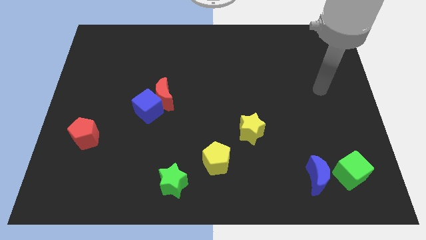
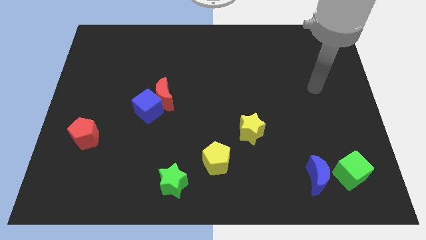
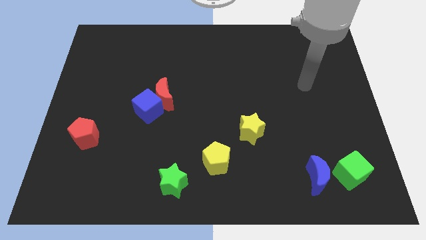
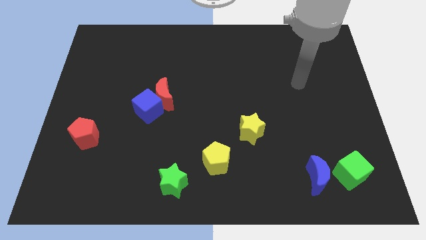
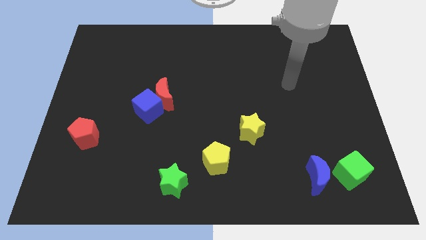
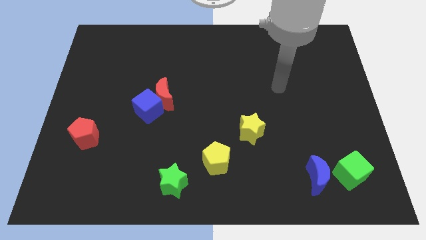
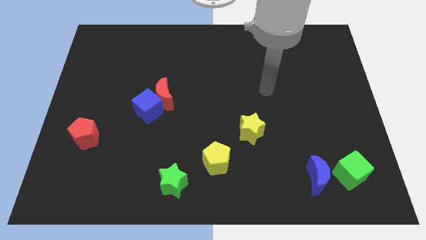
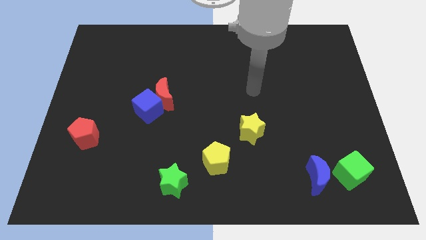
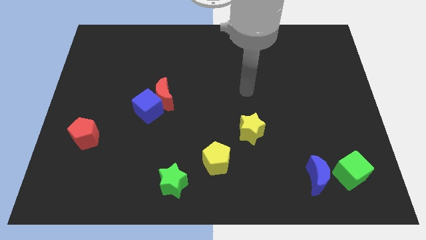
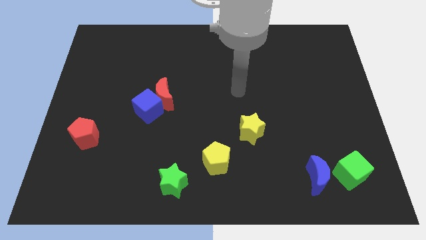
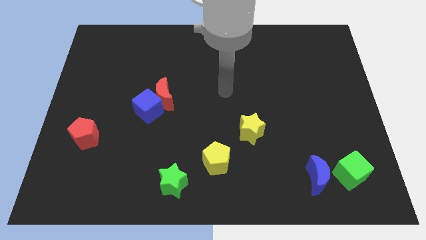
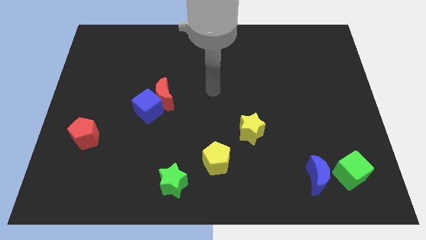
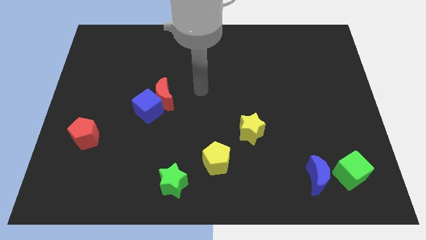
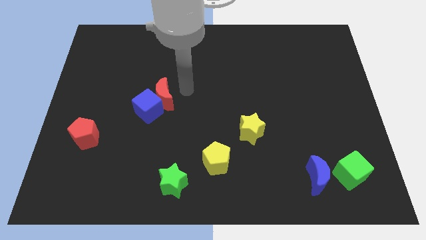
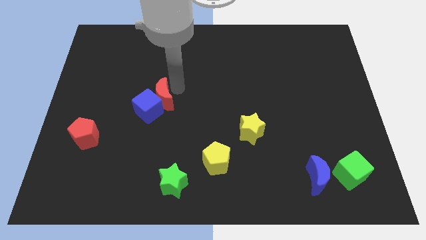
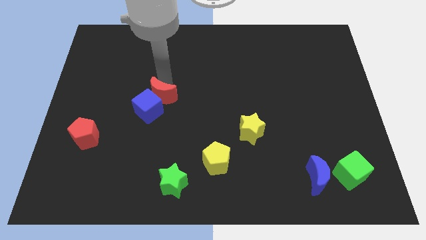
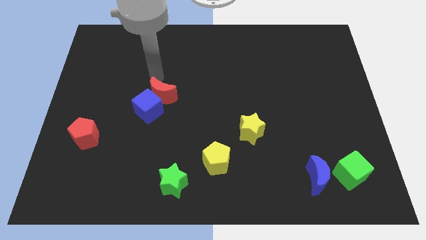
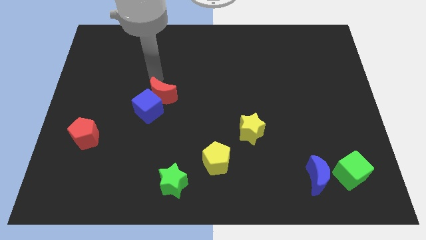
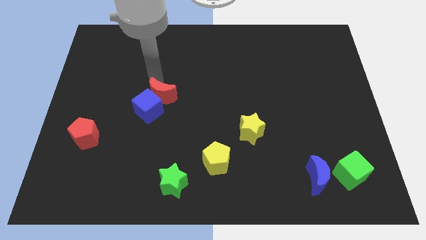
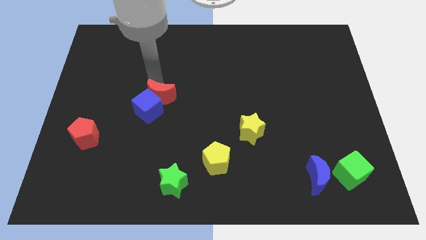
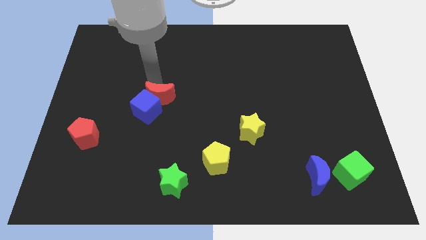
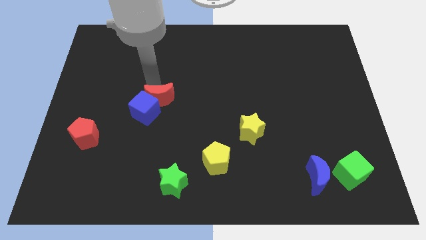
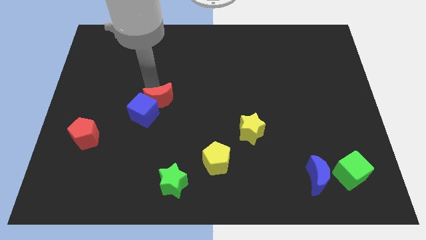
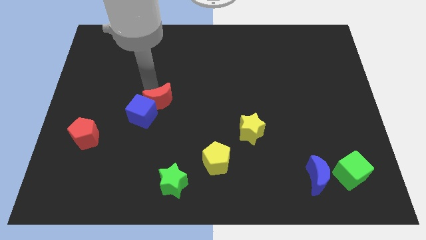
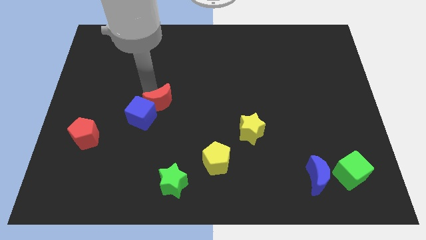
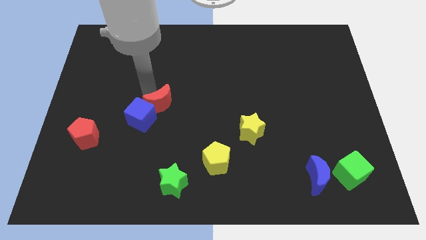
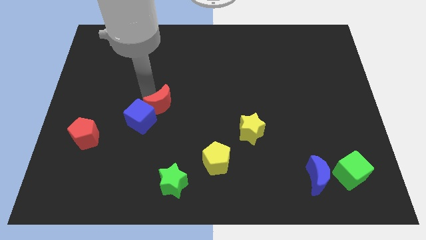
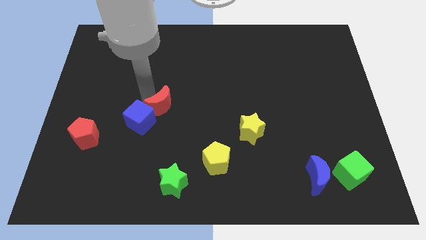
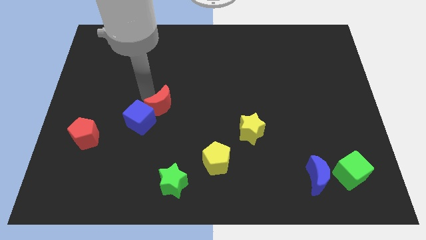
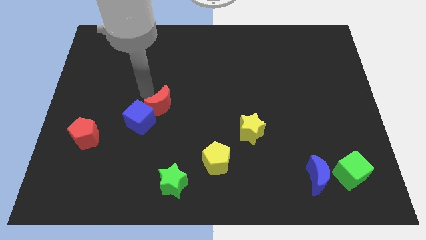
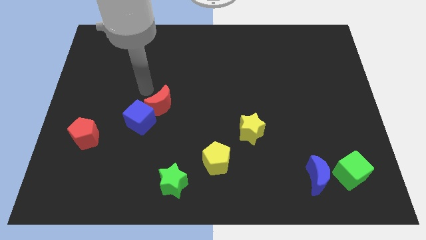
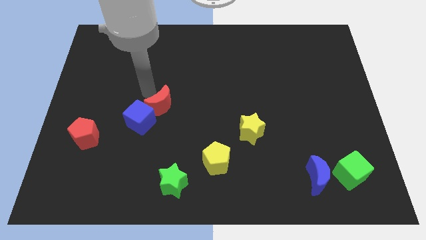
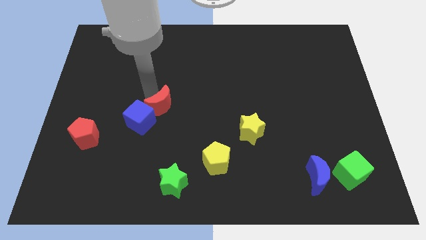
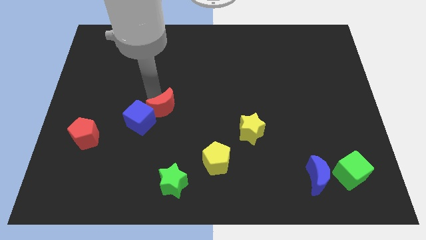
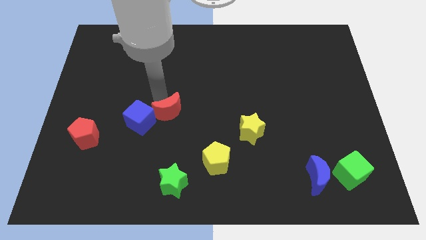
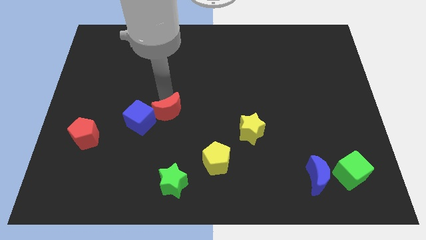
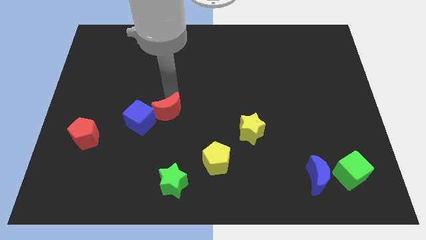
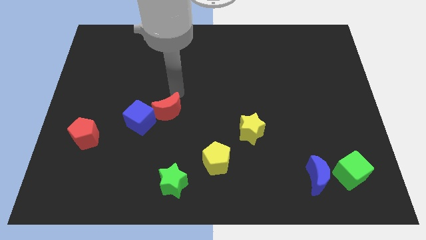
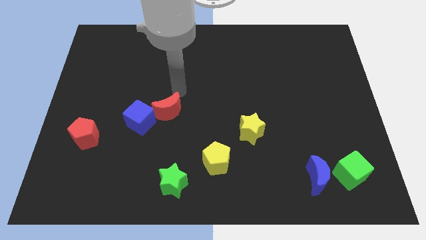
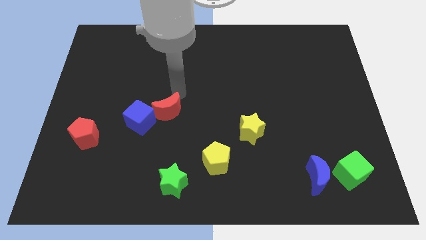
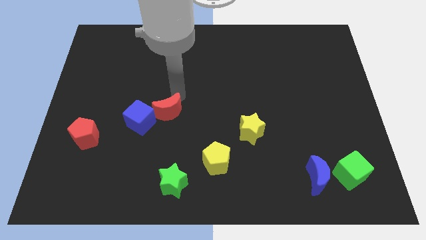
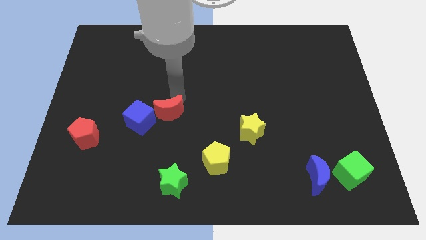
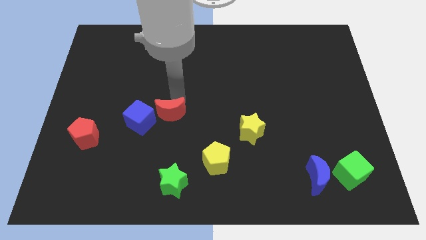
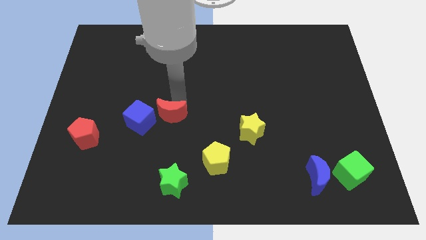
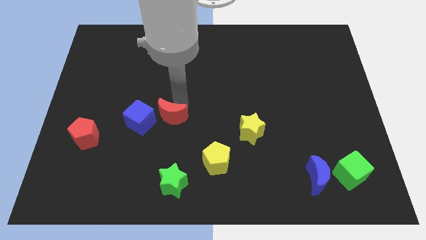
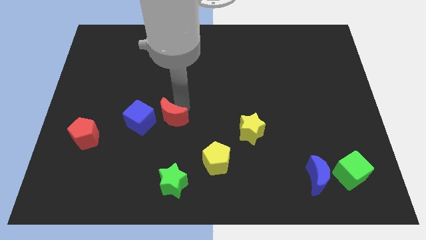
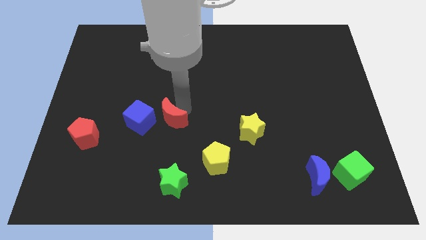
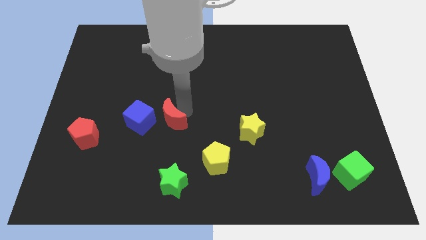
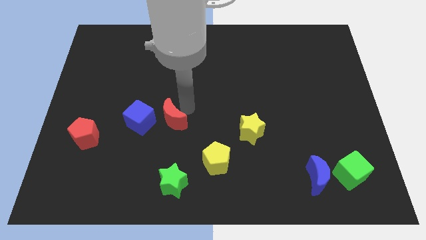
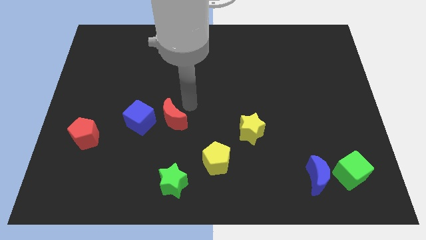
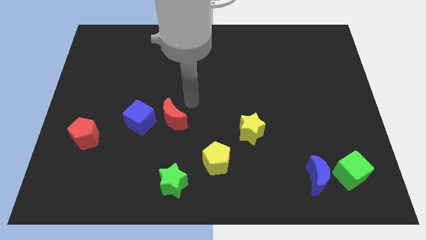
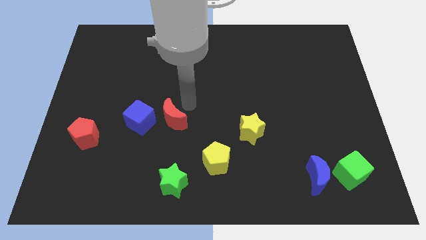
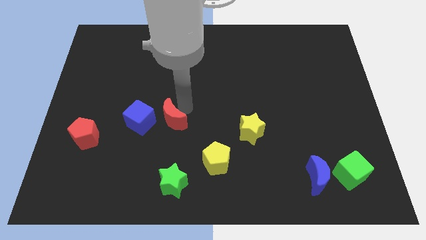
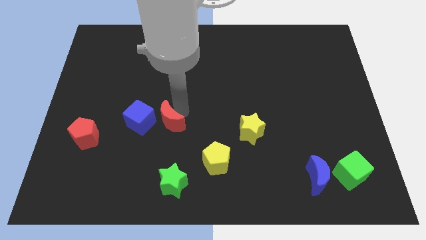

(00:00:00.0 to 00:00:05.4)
slightly slide the red moon down

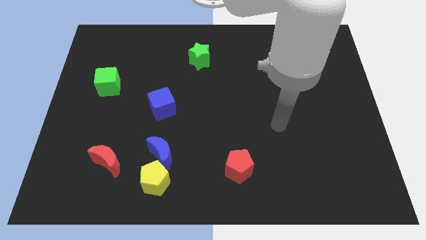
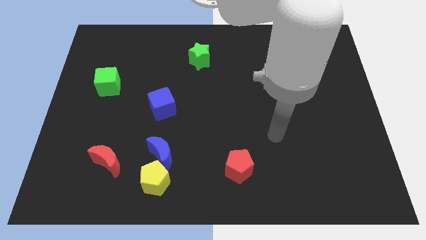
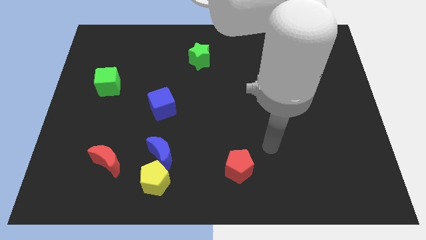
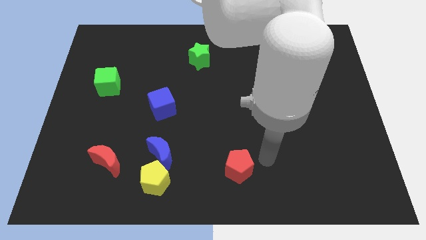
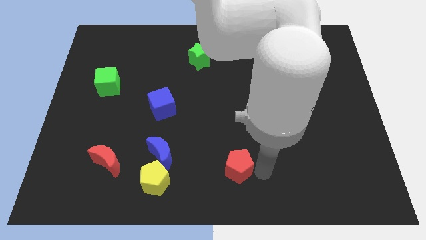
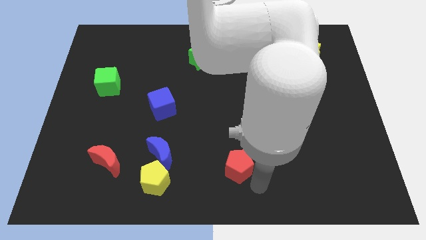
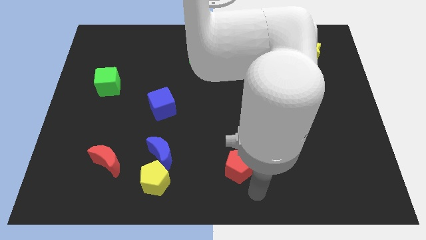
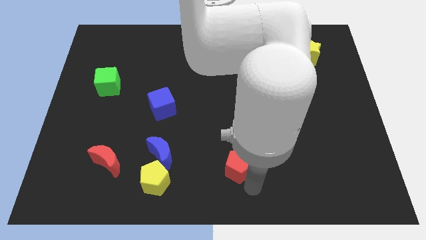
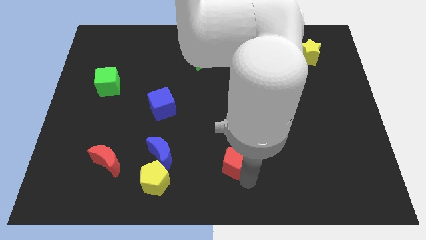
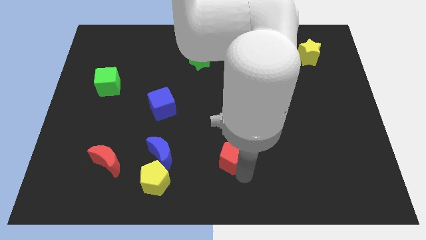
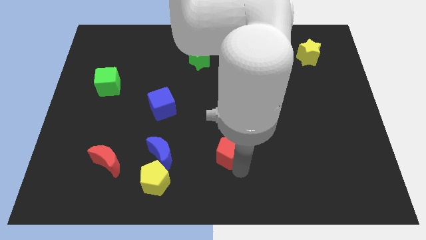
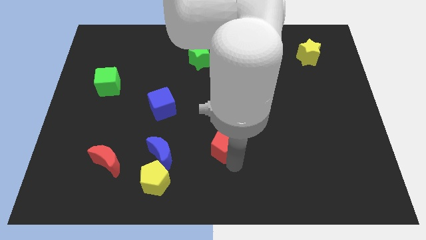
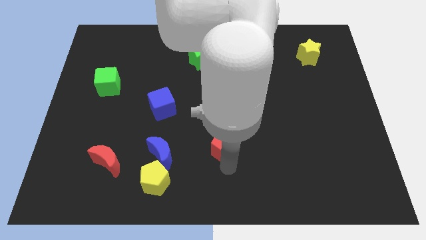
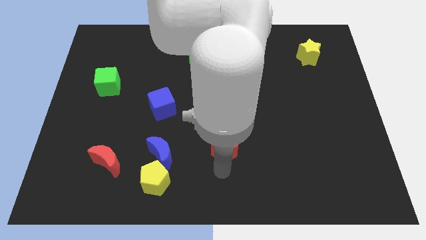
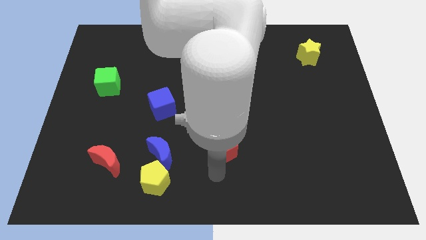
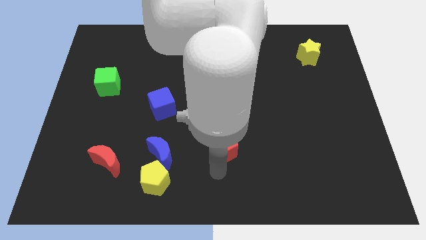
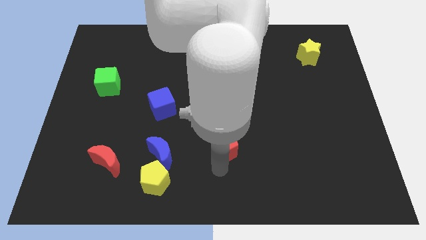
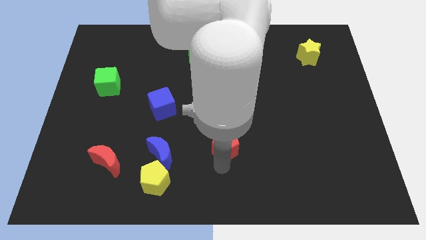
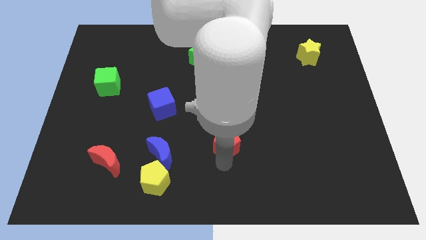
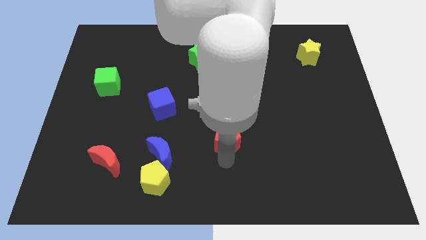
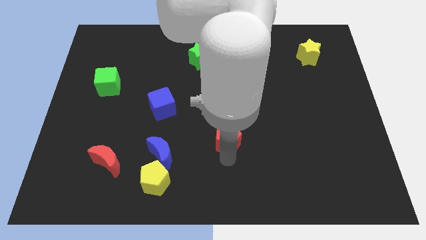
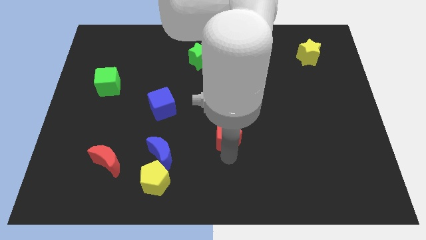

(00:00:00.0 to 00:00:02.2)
push the red pentagon a little bit up

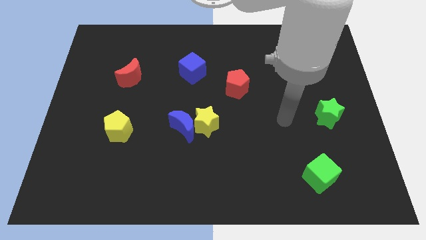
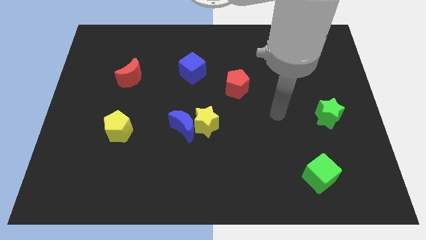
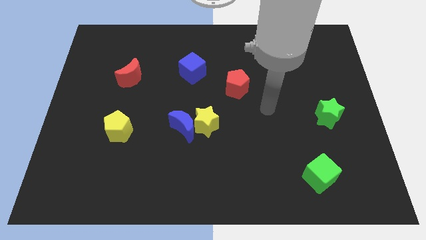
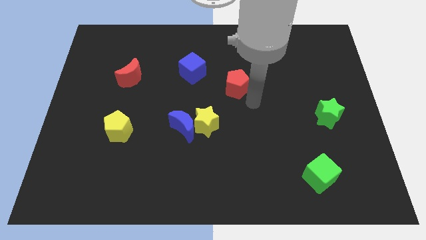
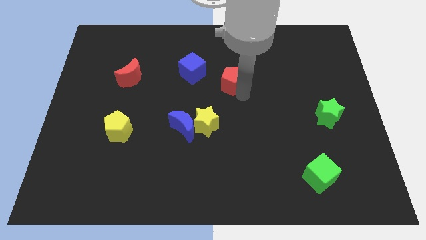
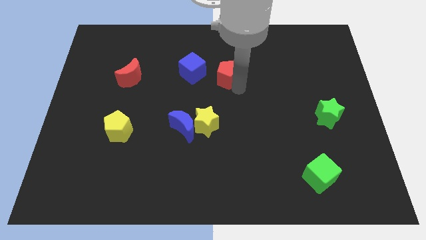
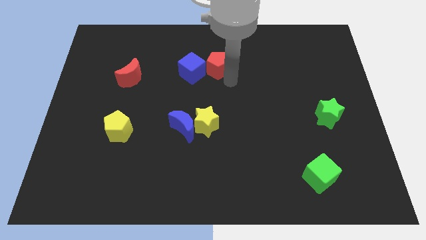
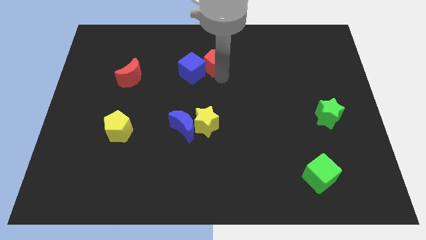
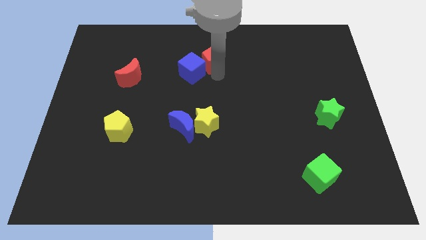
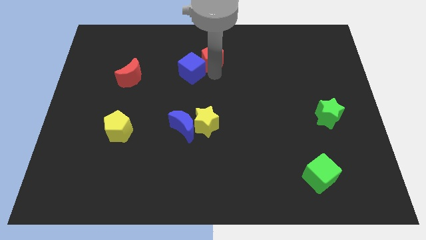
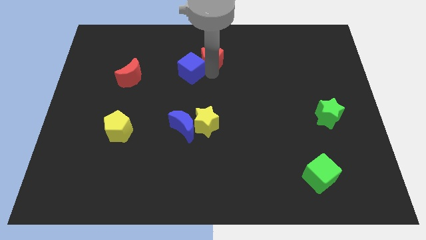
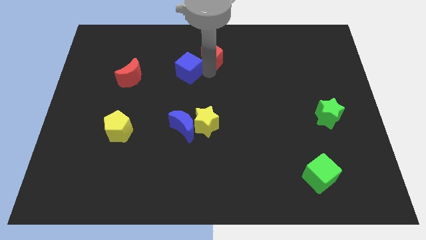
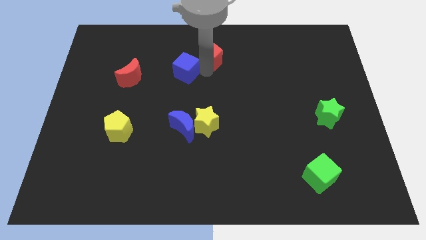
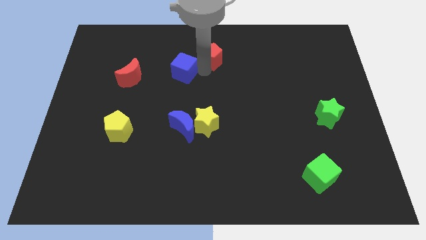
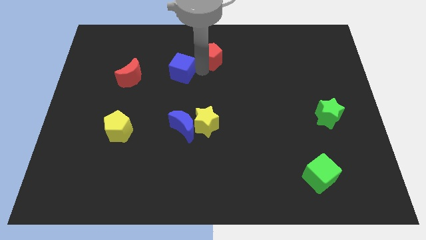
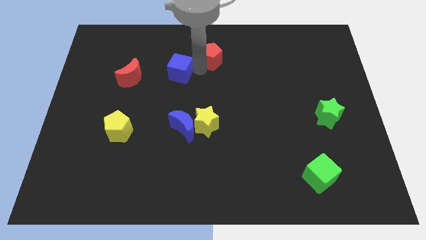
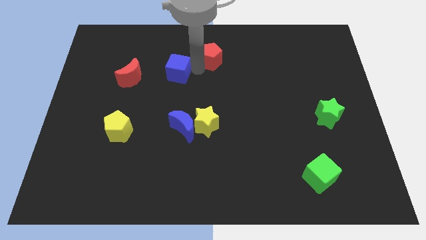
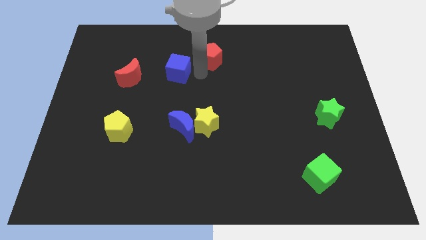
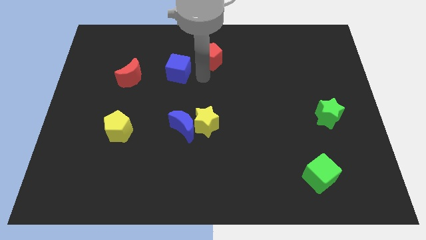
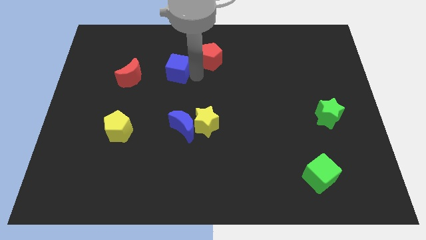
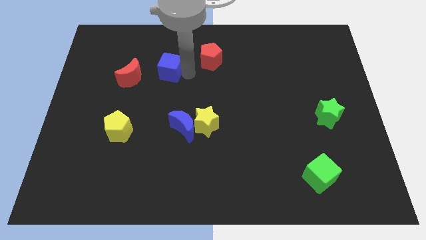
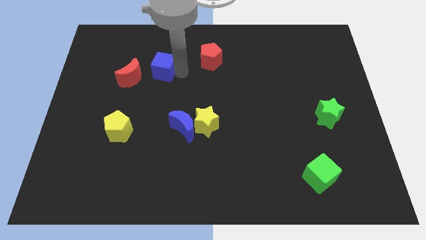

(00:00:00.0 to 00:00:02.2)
slide the blue cube to the left a bit
